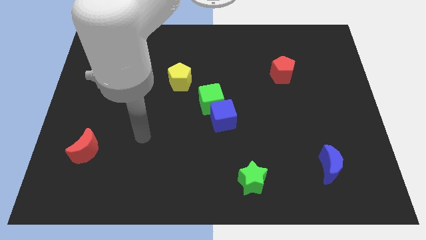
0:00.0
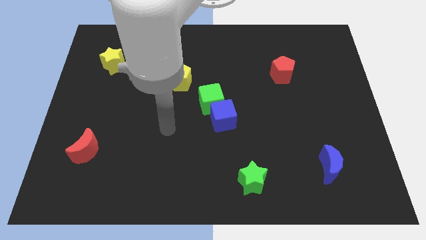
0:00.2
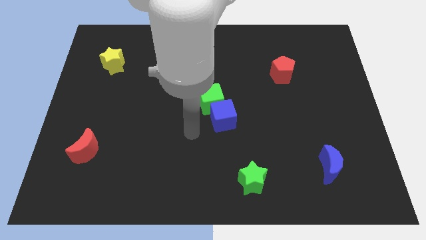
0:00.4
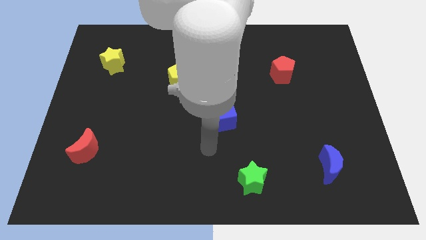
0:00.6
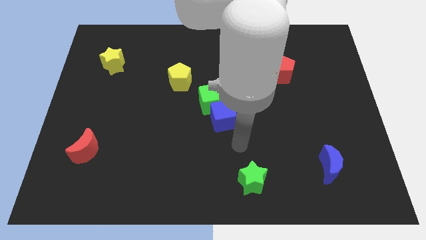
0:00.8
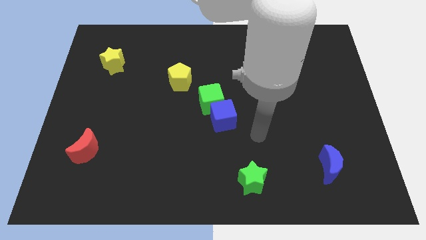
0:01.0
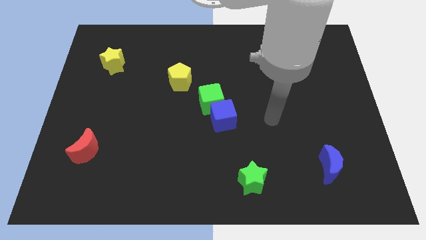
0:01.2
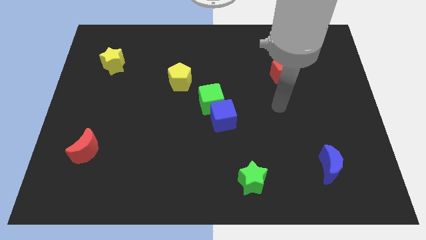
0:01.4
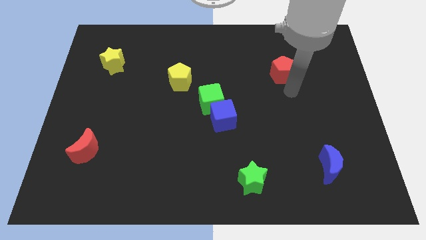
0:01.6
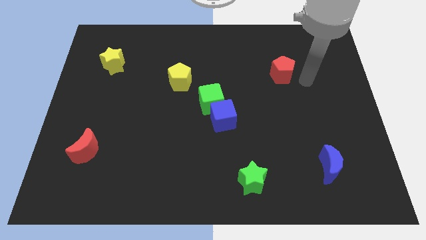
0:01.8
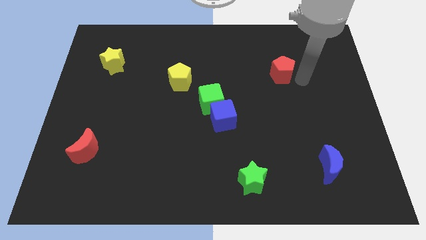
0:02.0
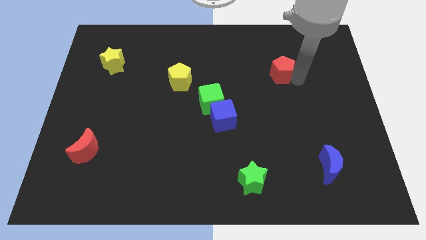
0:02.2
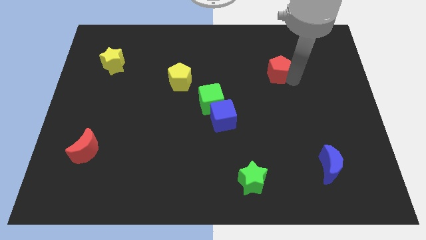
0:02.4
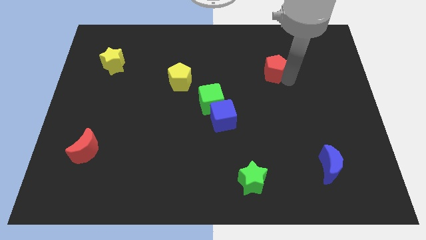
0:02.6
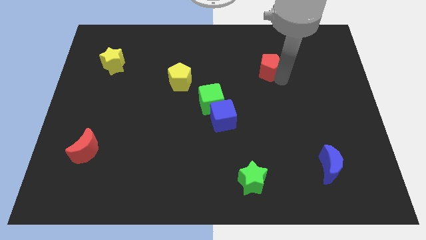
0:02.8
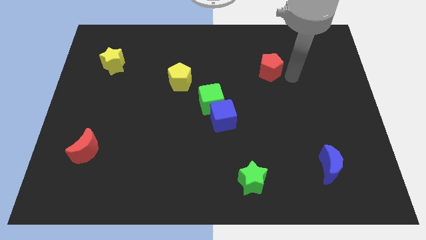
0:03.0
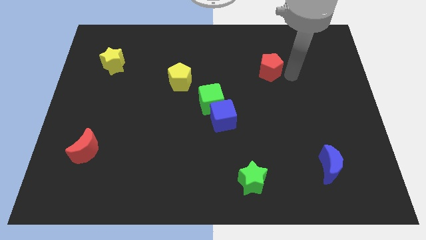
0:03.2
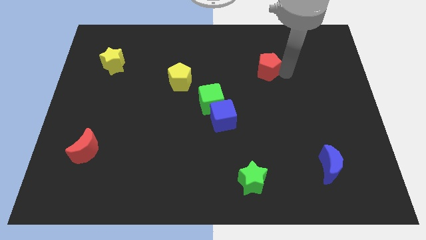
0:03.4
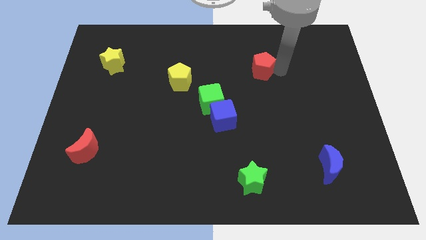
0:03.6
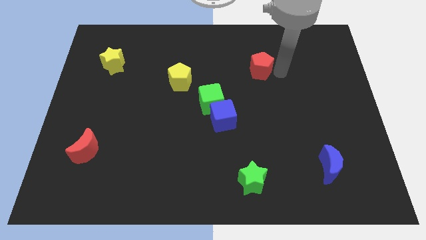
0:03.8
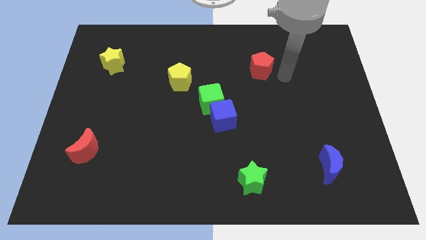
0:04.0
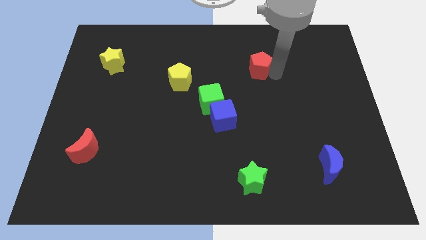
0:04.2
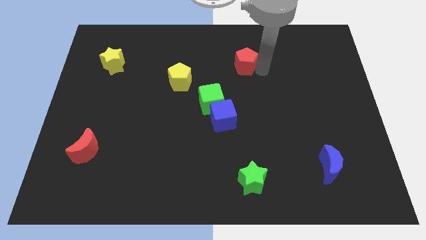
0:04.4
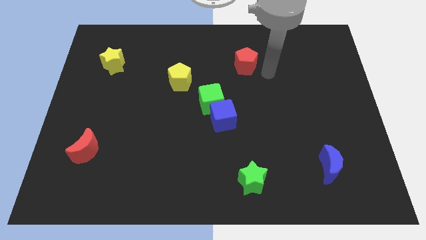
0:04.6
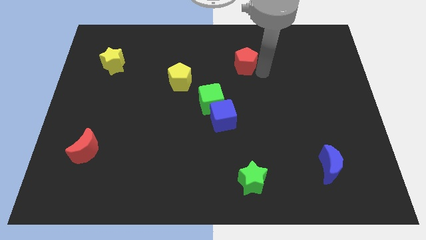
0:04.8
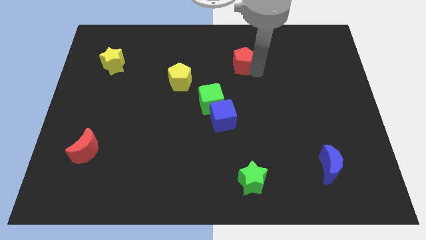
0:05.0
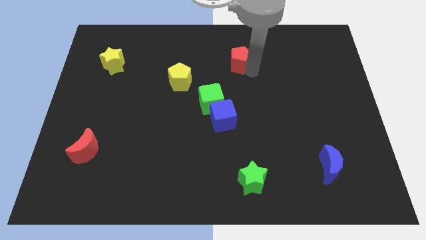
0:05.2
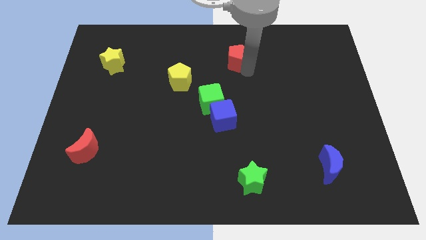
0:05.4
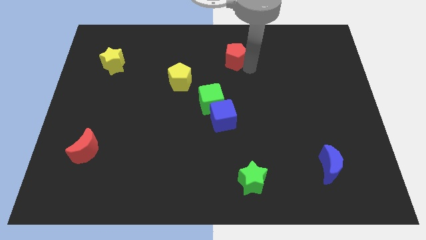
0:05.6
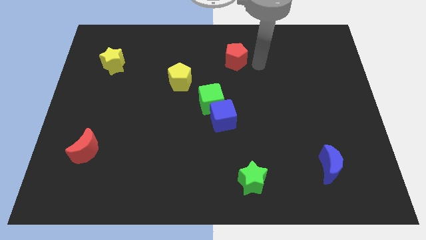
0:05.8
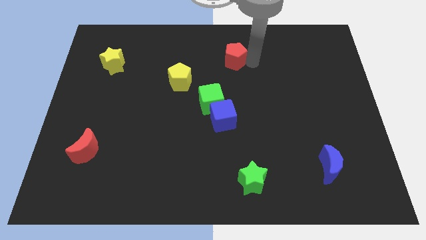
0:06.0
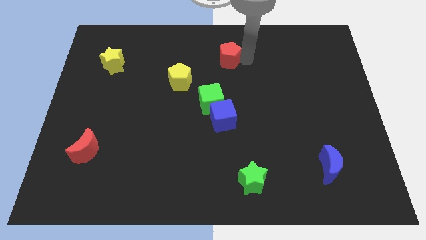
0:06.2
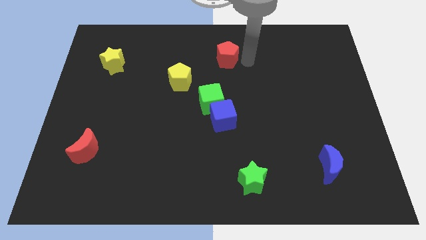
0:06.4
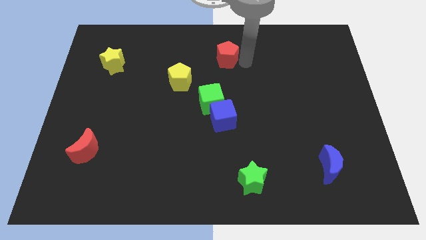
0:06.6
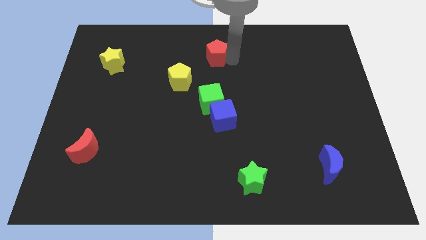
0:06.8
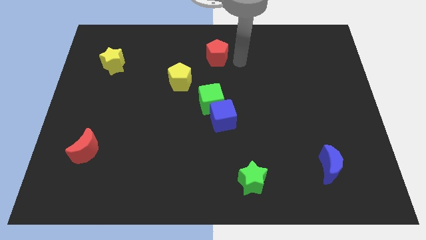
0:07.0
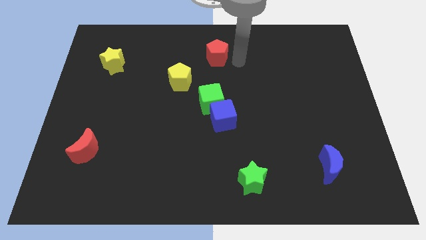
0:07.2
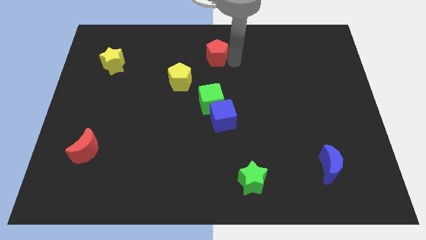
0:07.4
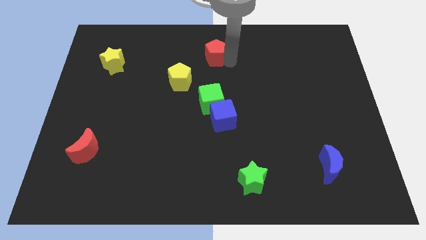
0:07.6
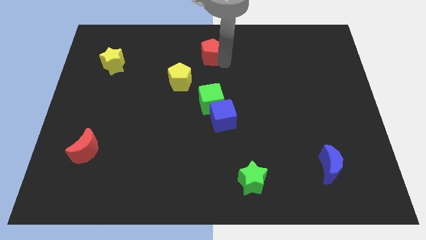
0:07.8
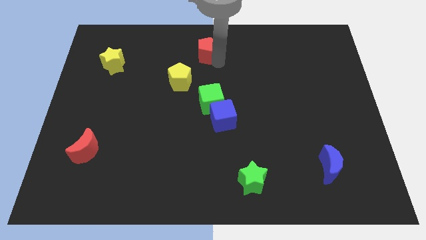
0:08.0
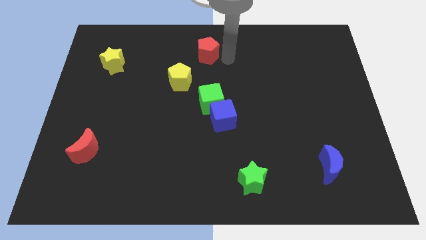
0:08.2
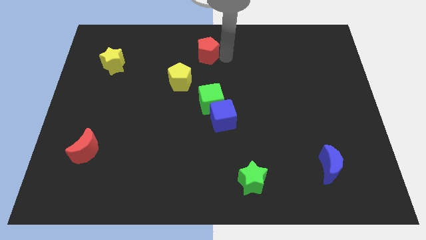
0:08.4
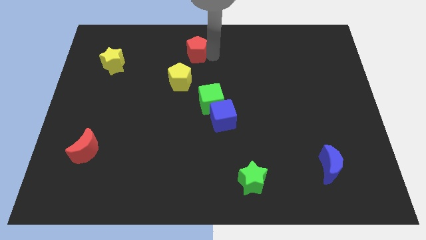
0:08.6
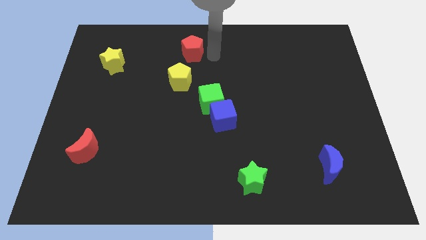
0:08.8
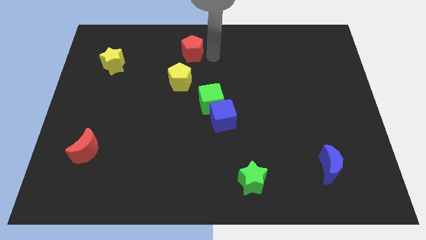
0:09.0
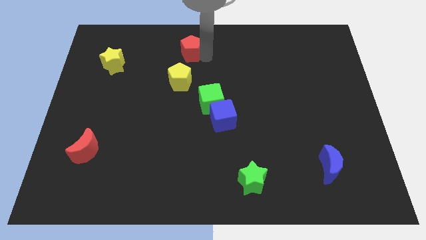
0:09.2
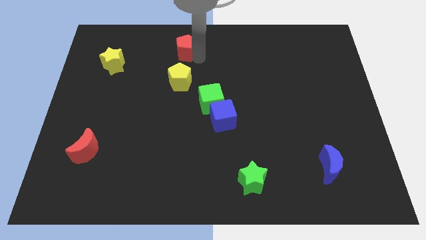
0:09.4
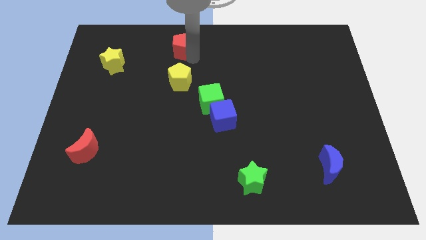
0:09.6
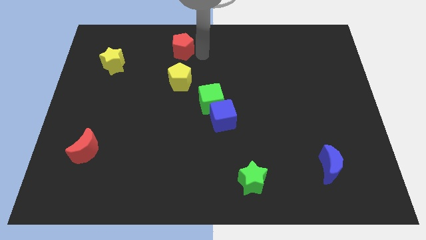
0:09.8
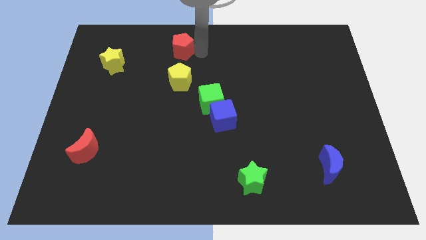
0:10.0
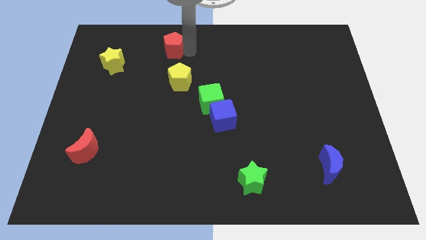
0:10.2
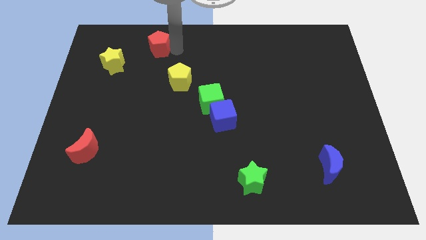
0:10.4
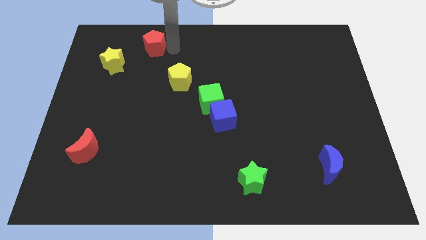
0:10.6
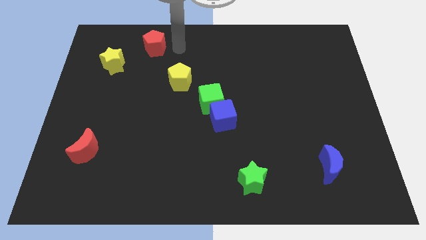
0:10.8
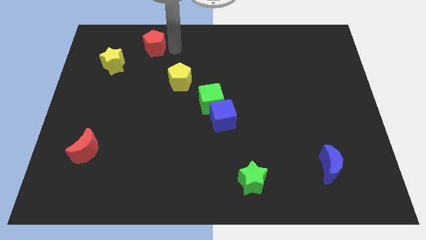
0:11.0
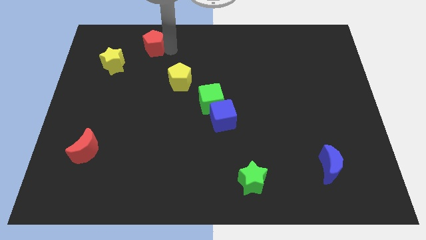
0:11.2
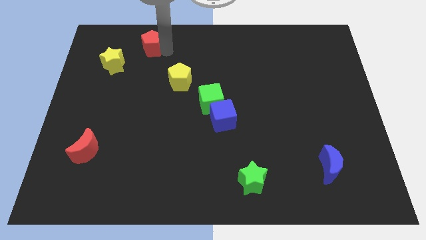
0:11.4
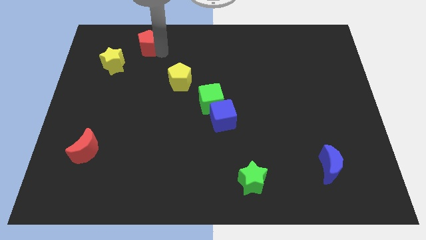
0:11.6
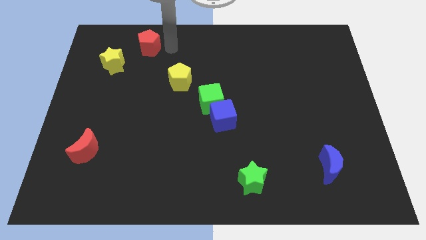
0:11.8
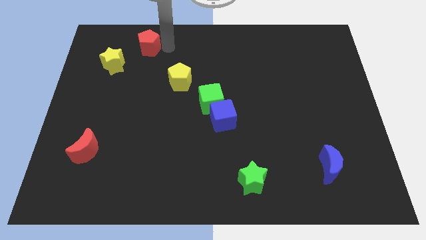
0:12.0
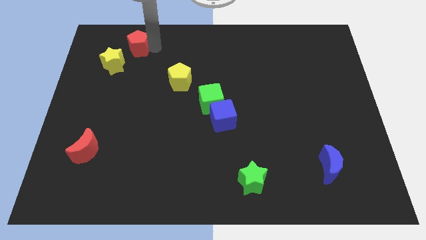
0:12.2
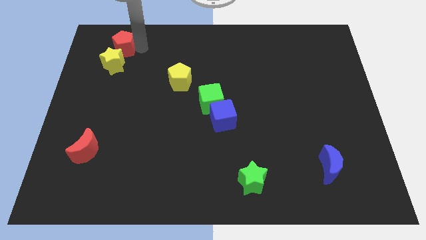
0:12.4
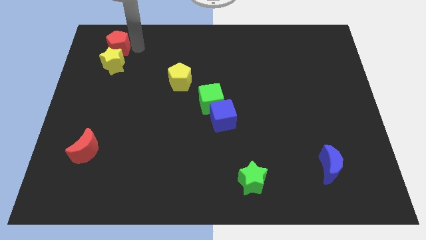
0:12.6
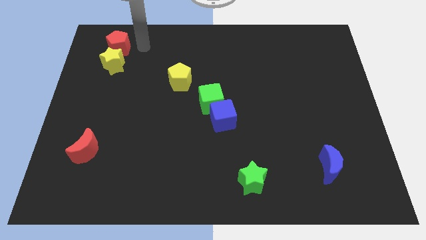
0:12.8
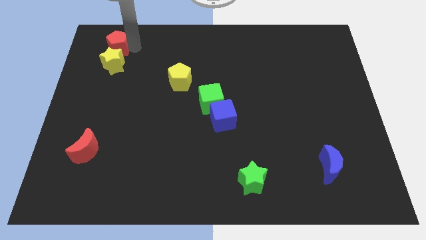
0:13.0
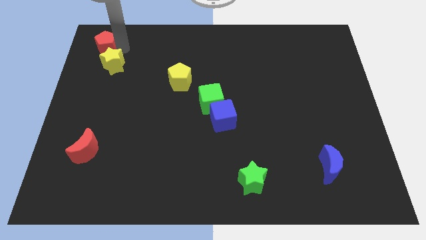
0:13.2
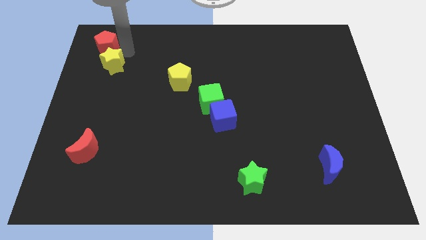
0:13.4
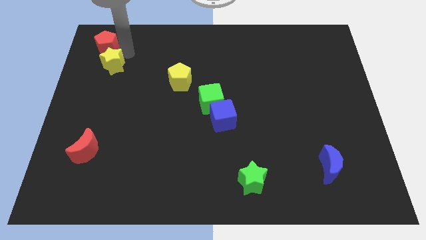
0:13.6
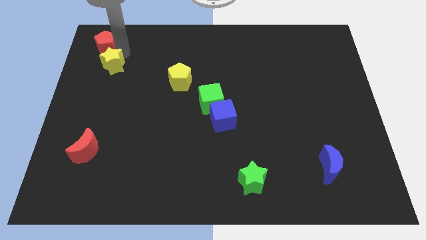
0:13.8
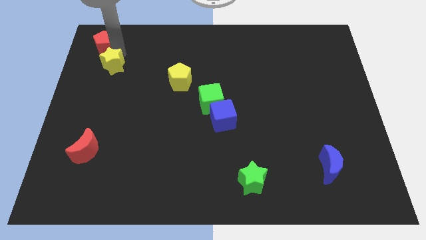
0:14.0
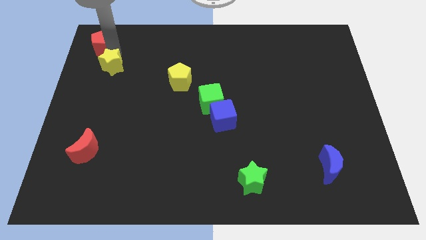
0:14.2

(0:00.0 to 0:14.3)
put the red pentagon to the top left of the board
